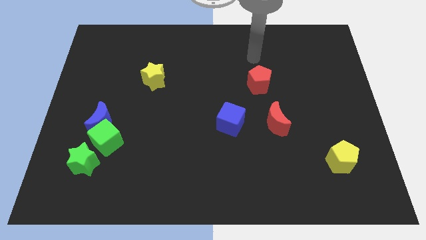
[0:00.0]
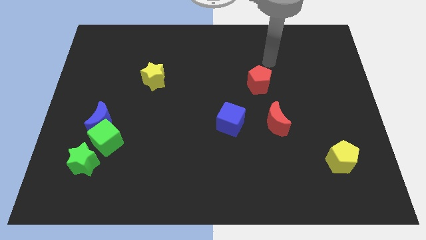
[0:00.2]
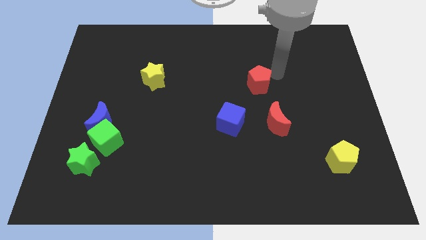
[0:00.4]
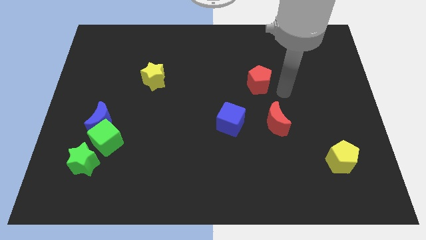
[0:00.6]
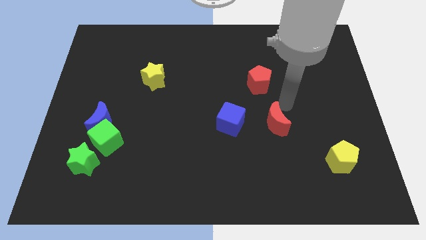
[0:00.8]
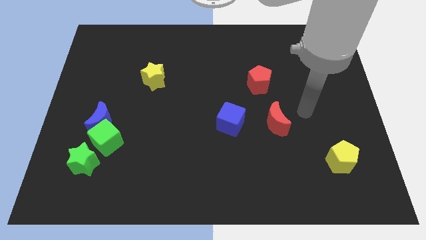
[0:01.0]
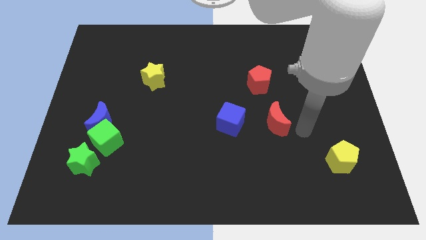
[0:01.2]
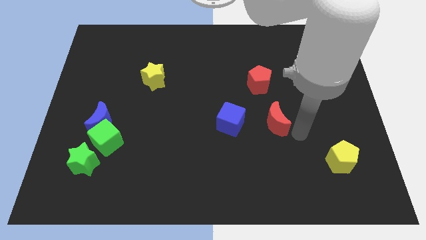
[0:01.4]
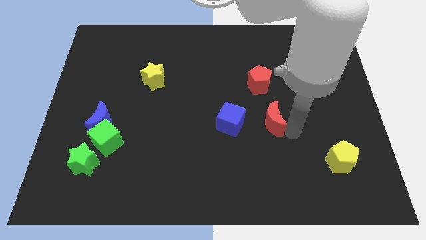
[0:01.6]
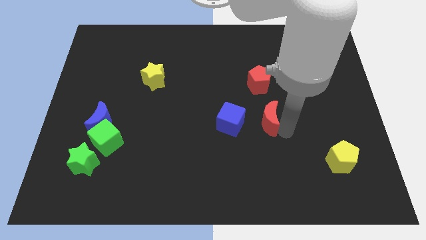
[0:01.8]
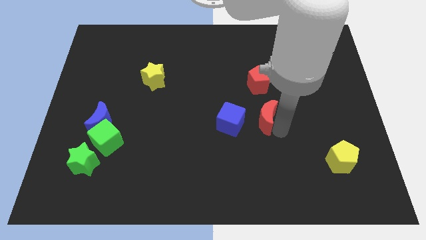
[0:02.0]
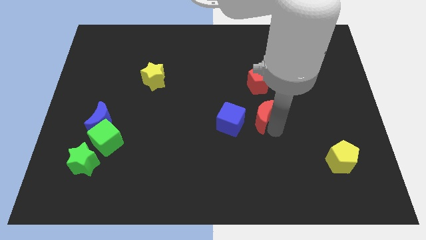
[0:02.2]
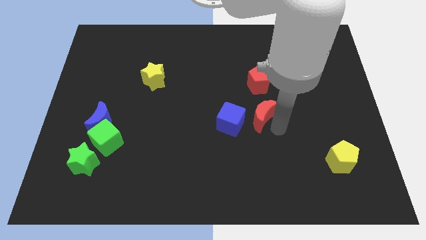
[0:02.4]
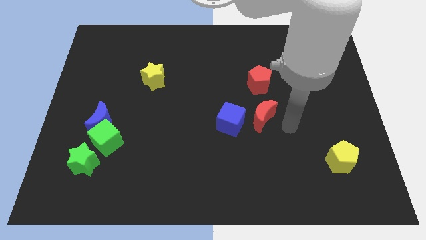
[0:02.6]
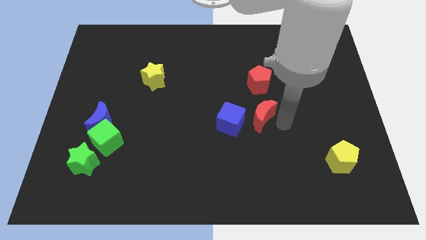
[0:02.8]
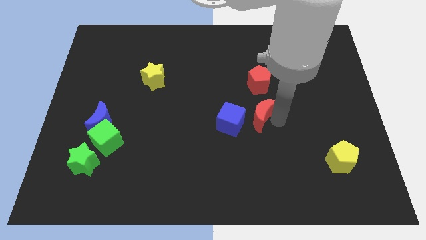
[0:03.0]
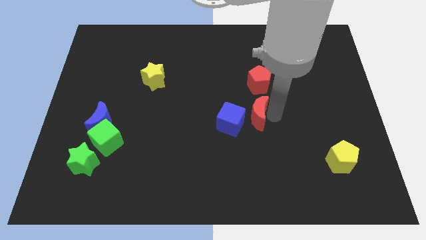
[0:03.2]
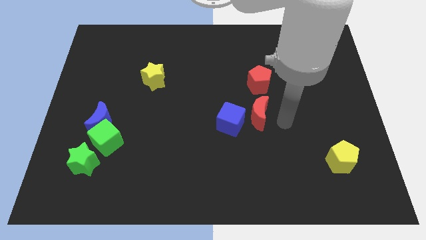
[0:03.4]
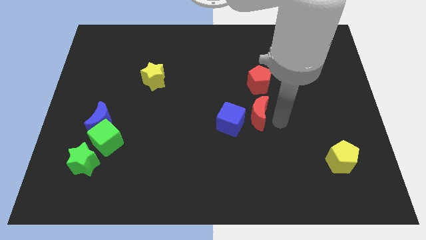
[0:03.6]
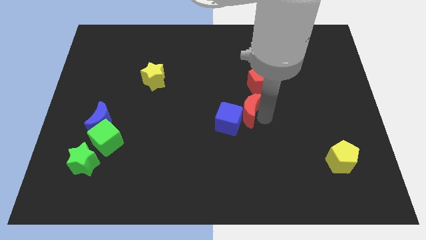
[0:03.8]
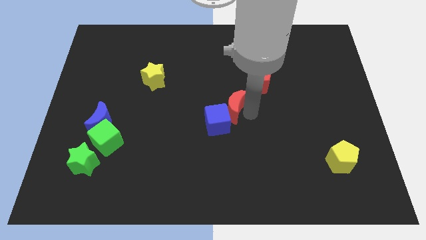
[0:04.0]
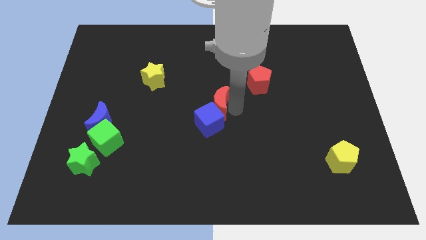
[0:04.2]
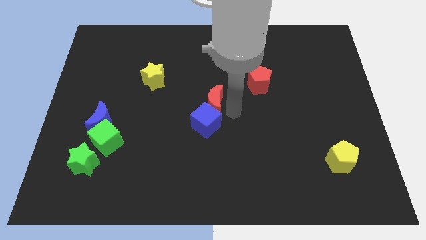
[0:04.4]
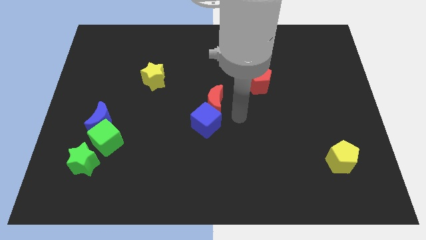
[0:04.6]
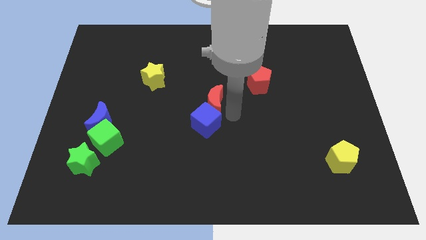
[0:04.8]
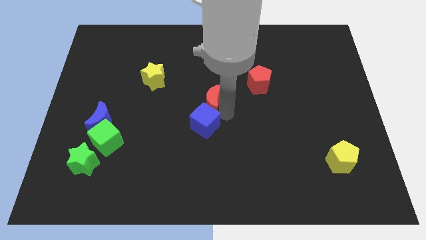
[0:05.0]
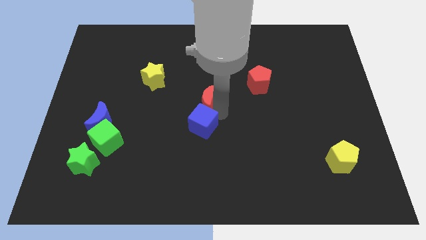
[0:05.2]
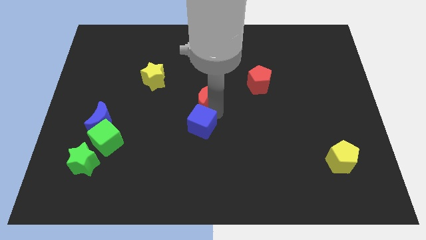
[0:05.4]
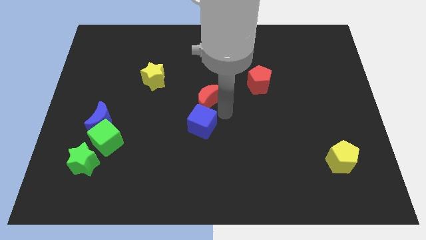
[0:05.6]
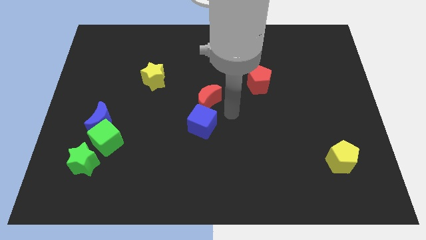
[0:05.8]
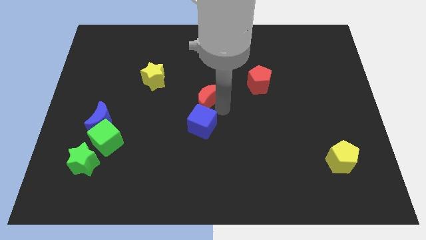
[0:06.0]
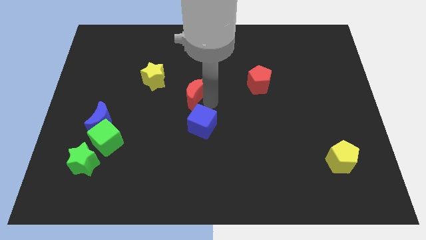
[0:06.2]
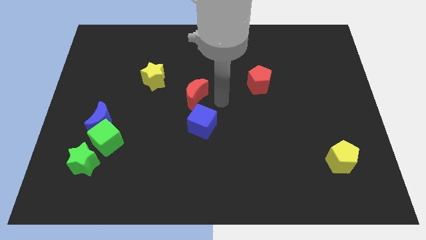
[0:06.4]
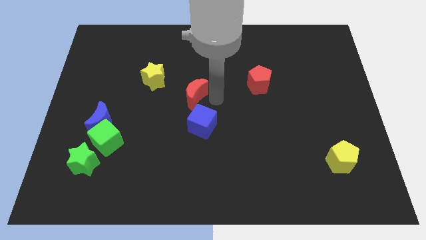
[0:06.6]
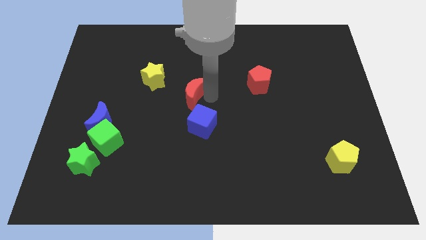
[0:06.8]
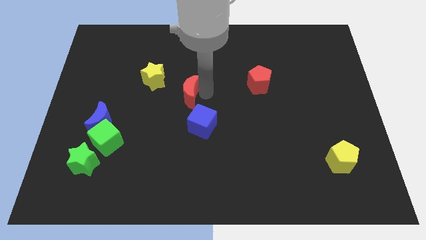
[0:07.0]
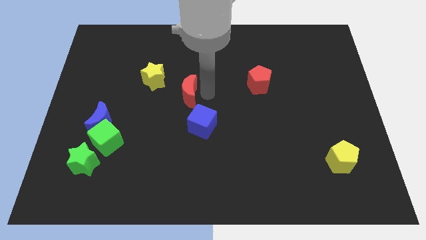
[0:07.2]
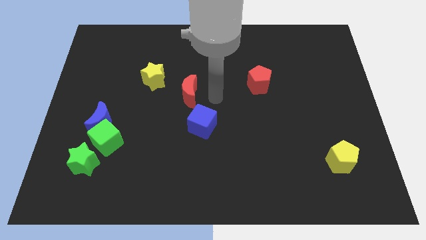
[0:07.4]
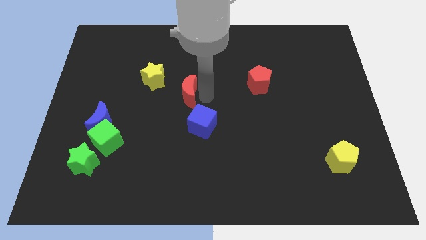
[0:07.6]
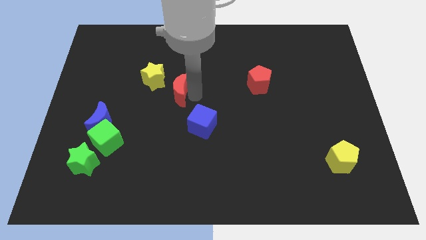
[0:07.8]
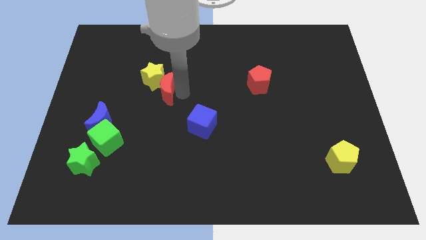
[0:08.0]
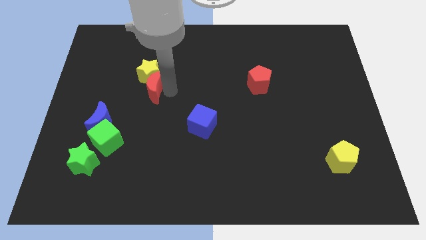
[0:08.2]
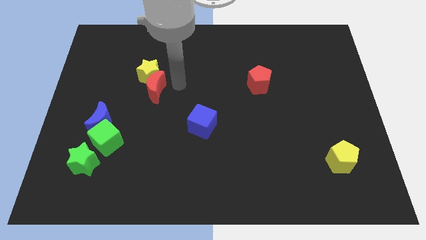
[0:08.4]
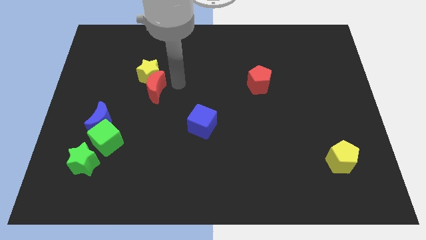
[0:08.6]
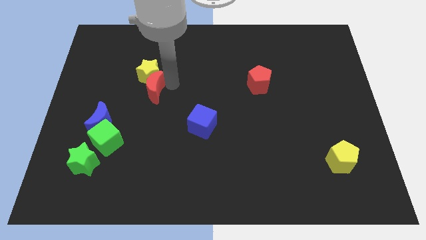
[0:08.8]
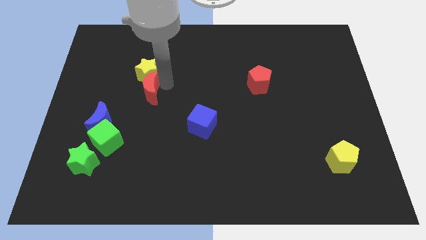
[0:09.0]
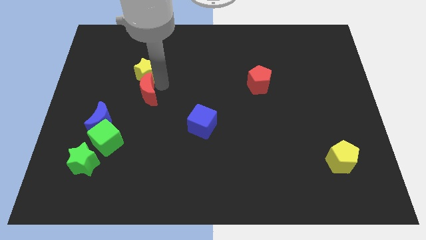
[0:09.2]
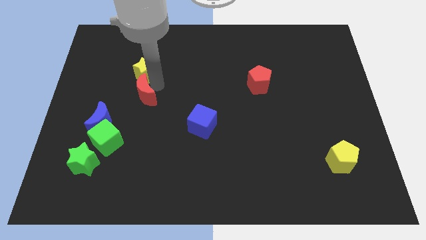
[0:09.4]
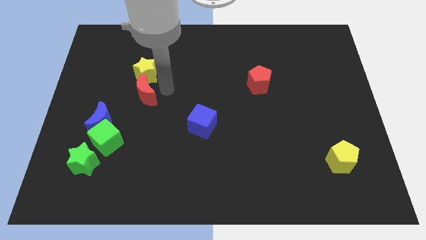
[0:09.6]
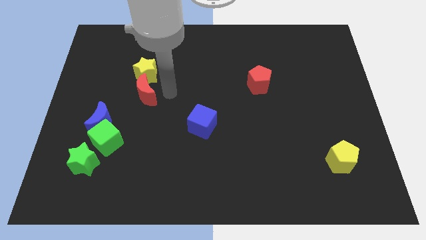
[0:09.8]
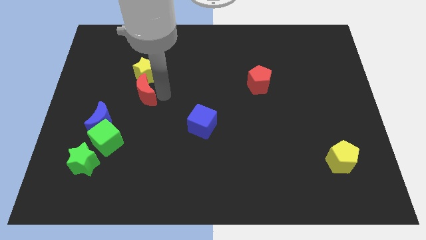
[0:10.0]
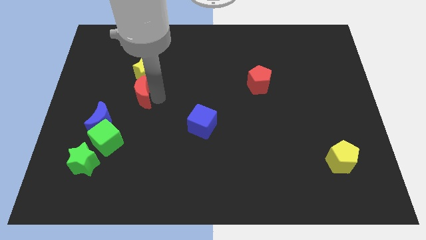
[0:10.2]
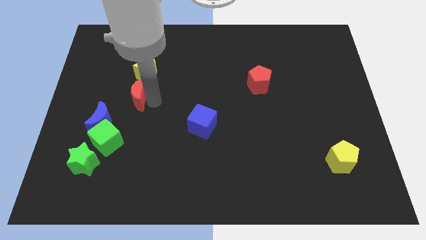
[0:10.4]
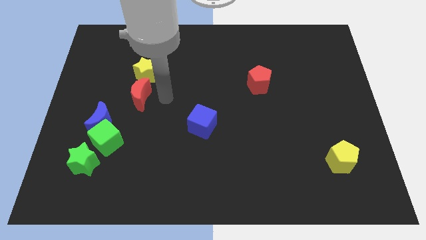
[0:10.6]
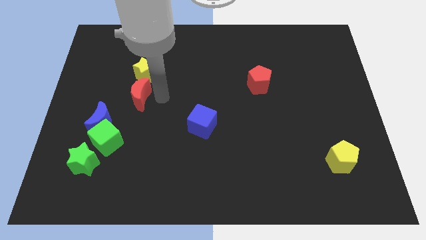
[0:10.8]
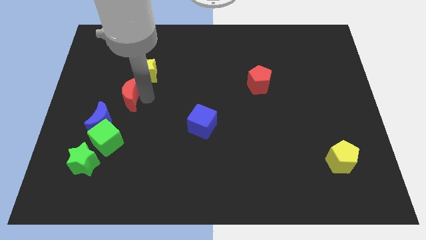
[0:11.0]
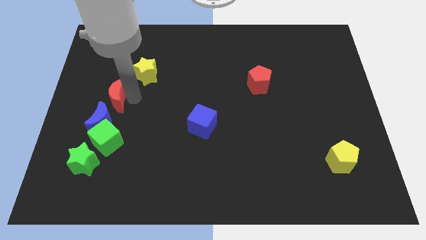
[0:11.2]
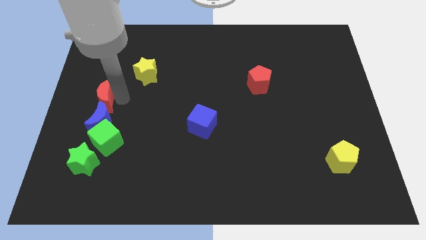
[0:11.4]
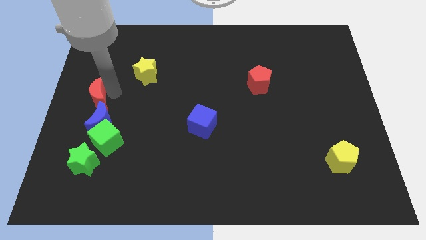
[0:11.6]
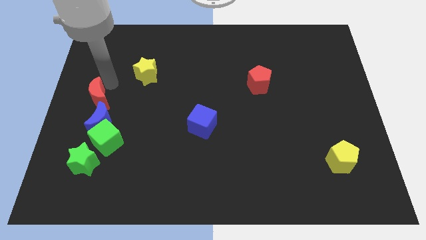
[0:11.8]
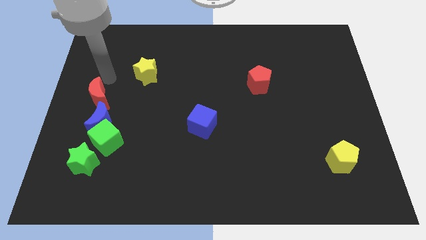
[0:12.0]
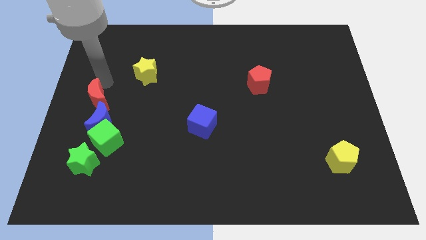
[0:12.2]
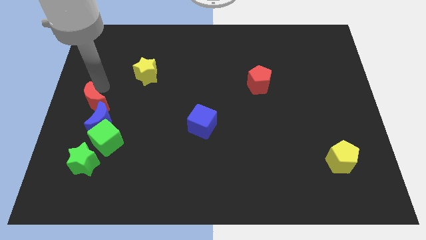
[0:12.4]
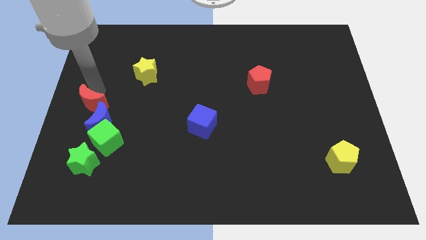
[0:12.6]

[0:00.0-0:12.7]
slide the red moon diagonally up and to the left of the green cube
